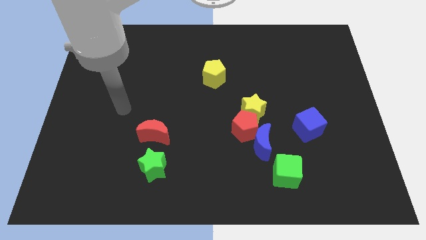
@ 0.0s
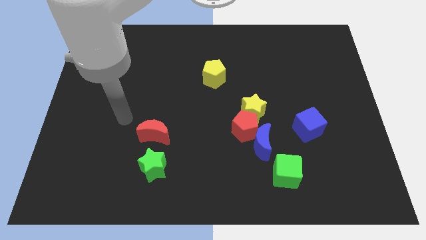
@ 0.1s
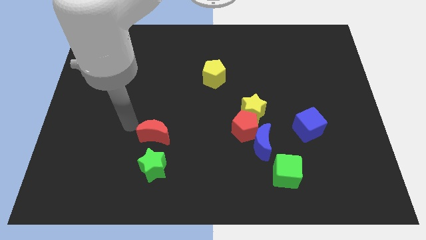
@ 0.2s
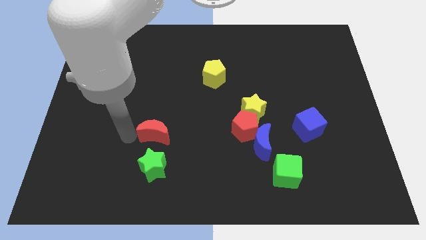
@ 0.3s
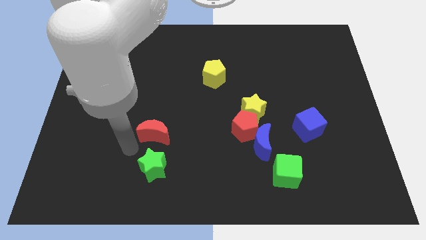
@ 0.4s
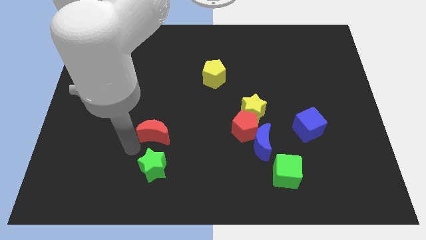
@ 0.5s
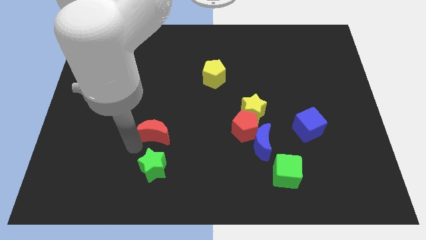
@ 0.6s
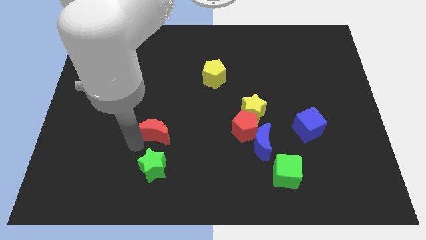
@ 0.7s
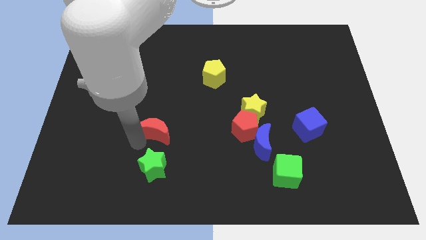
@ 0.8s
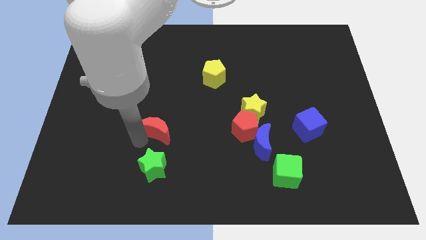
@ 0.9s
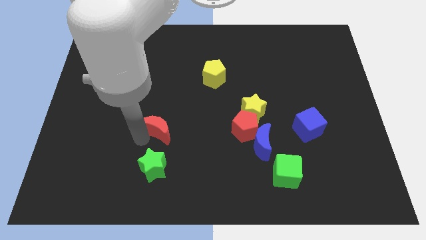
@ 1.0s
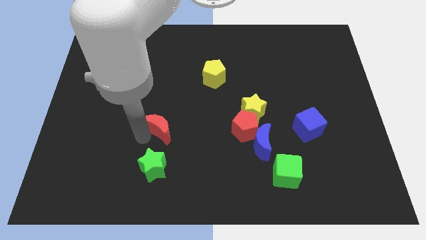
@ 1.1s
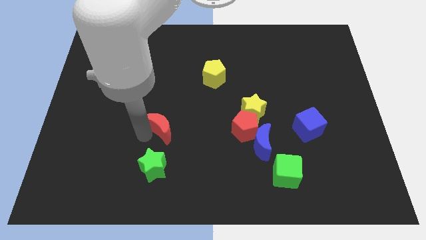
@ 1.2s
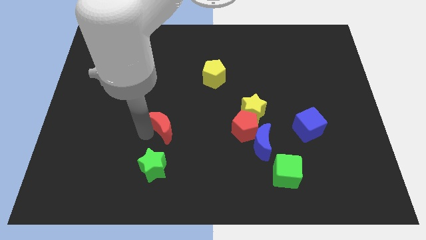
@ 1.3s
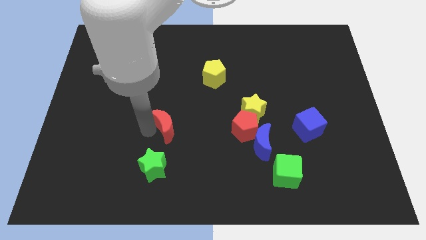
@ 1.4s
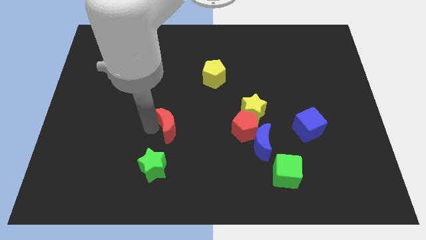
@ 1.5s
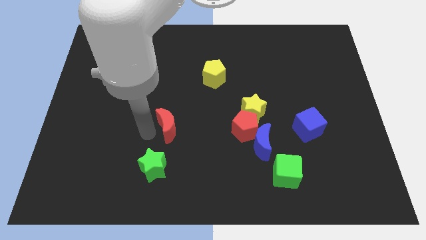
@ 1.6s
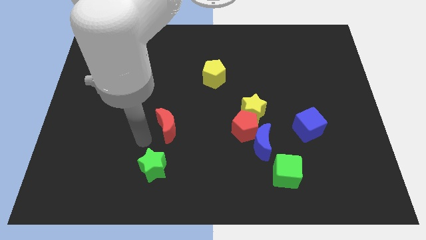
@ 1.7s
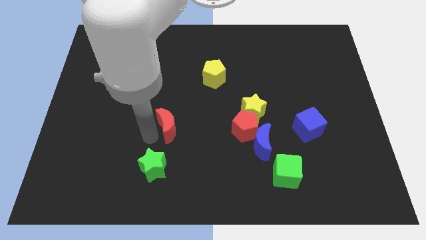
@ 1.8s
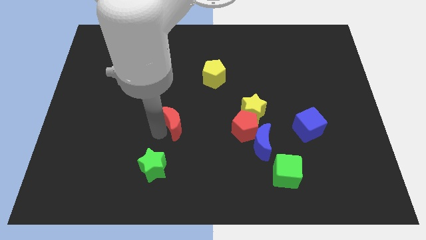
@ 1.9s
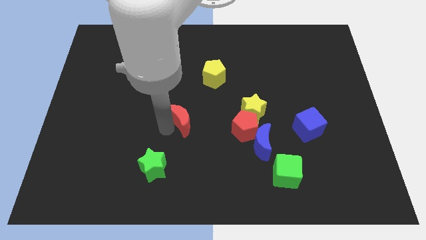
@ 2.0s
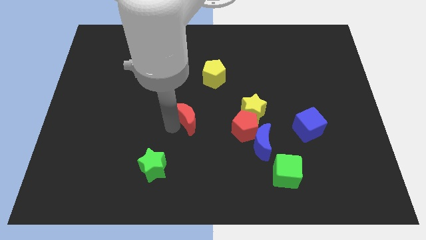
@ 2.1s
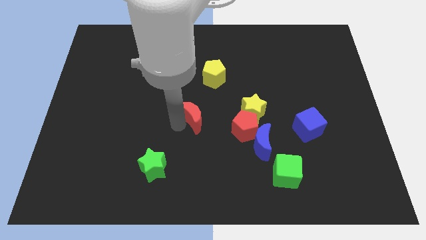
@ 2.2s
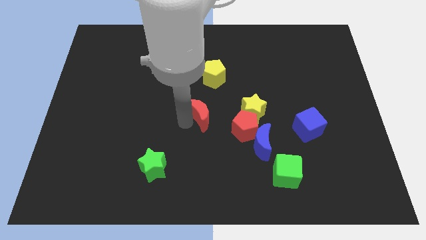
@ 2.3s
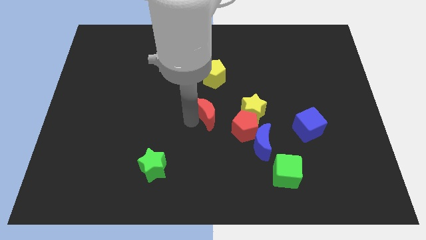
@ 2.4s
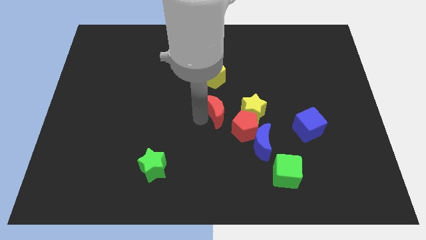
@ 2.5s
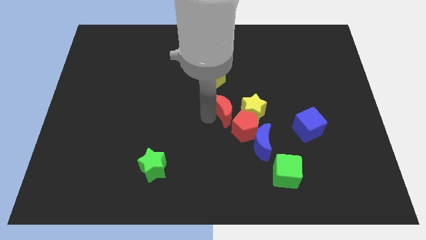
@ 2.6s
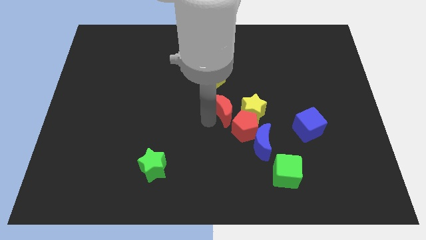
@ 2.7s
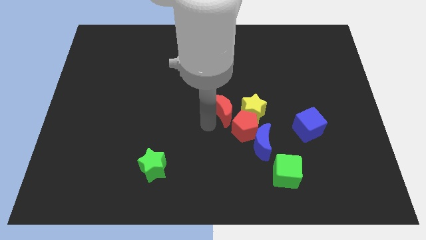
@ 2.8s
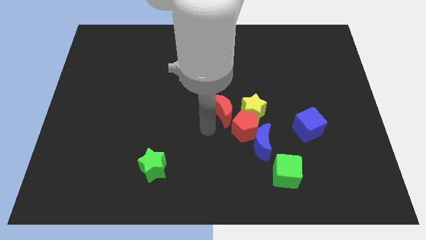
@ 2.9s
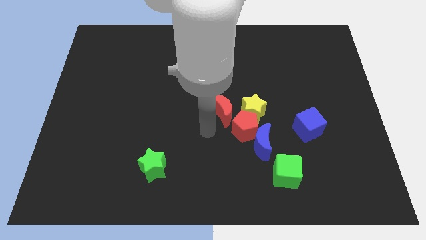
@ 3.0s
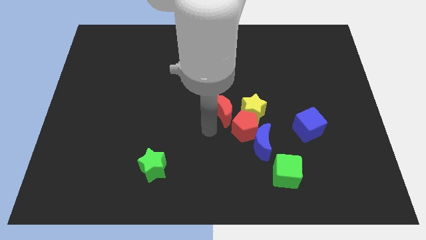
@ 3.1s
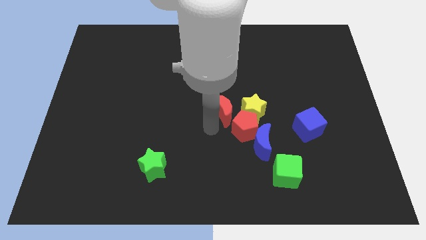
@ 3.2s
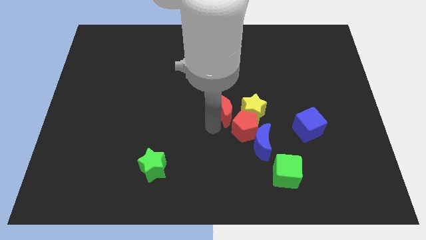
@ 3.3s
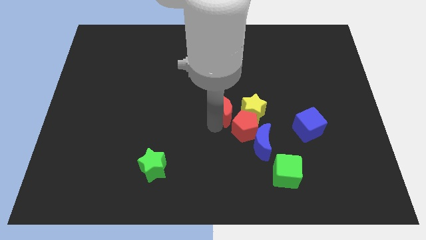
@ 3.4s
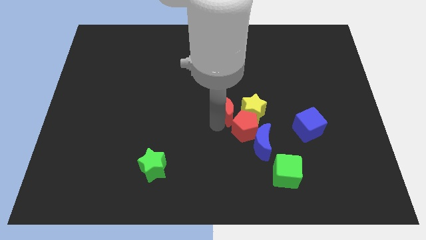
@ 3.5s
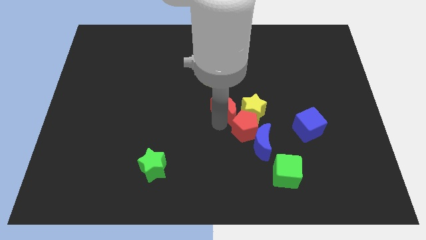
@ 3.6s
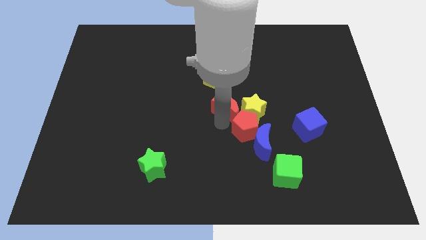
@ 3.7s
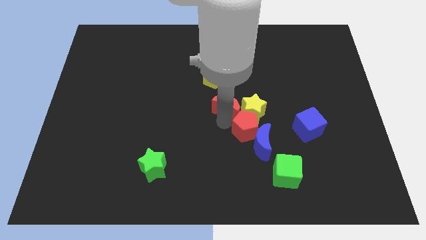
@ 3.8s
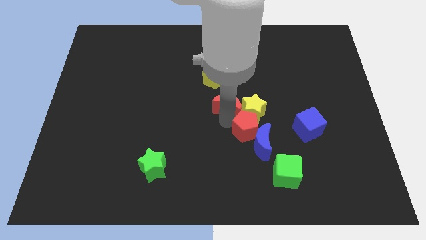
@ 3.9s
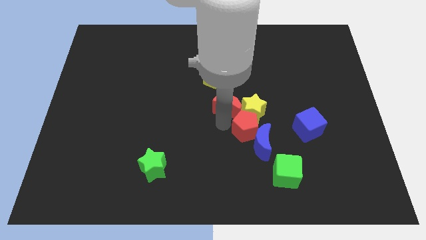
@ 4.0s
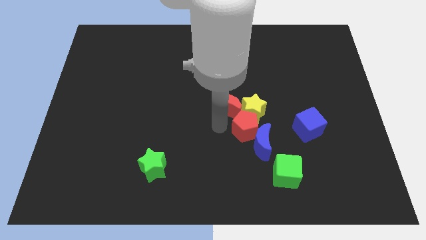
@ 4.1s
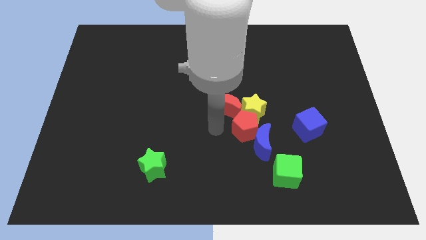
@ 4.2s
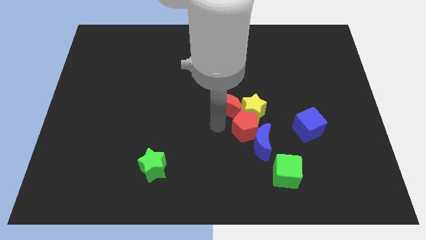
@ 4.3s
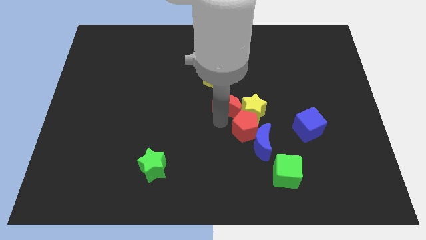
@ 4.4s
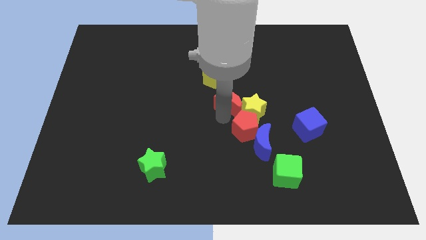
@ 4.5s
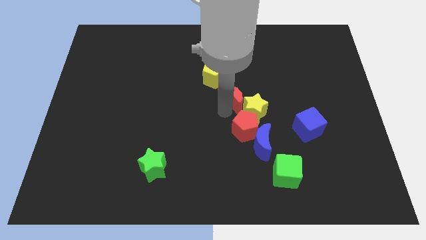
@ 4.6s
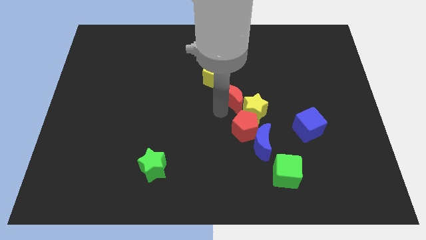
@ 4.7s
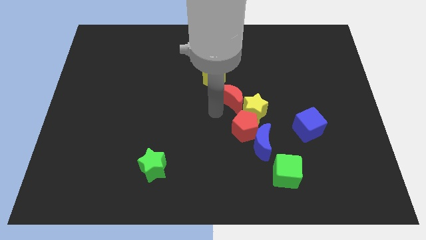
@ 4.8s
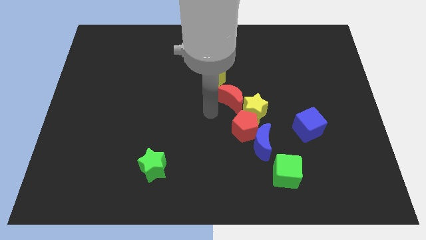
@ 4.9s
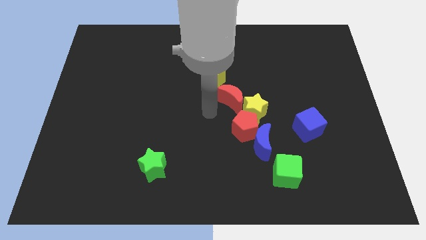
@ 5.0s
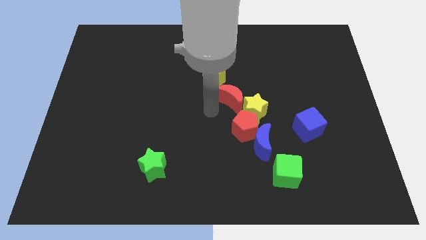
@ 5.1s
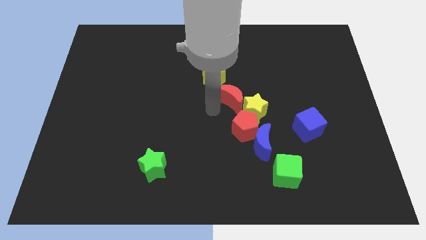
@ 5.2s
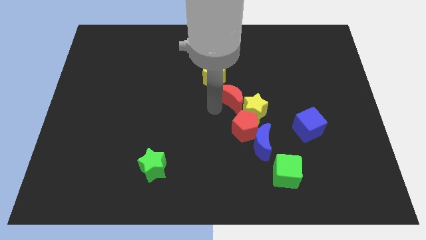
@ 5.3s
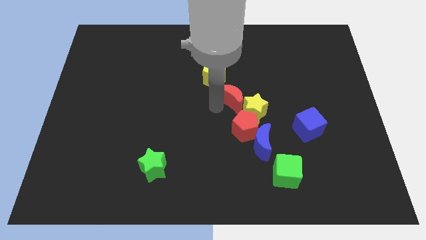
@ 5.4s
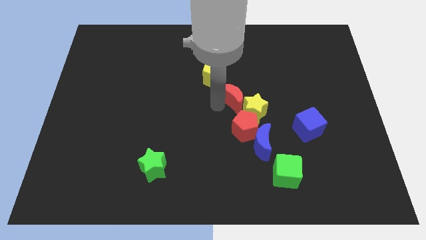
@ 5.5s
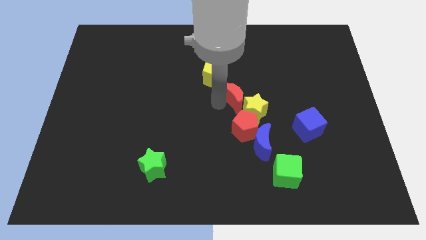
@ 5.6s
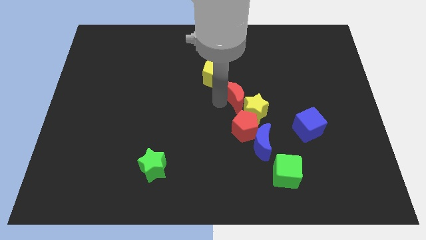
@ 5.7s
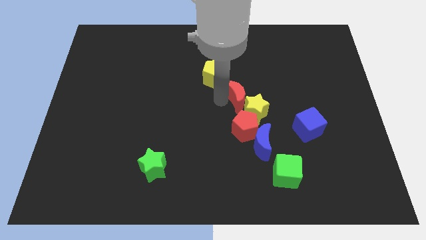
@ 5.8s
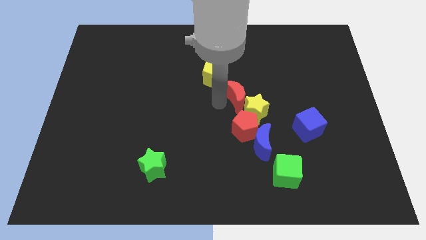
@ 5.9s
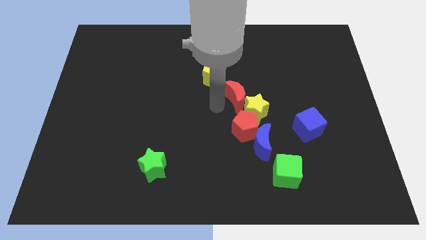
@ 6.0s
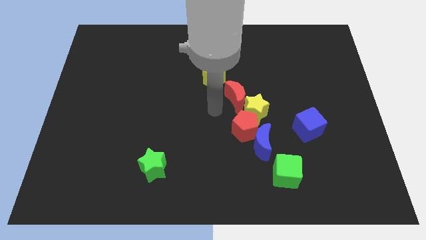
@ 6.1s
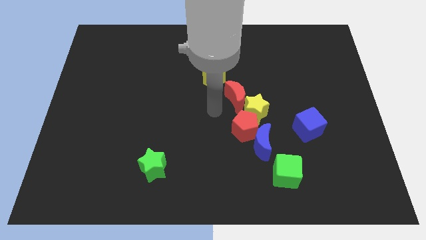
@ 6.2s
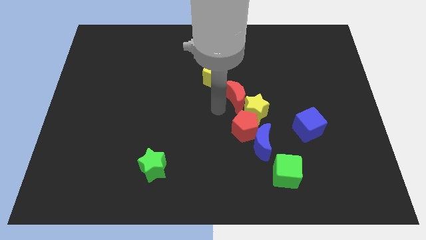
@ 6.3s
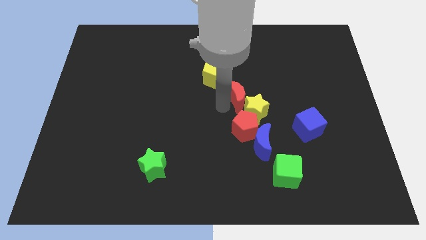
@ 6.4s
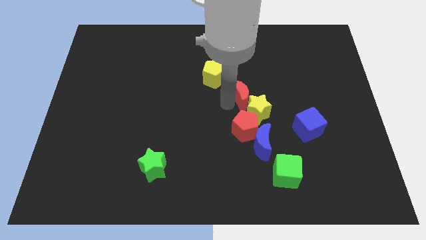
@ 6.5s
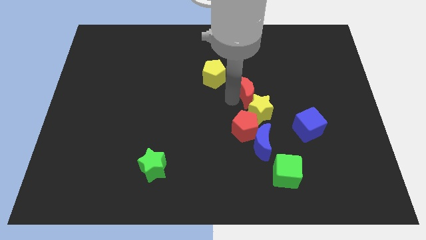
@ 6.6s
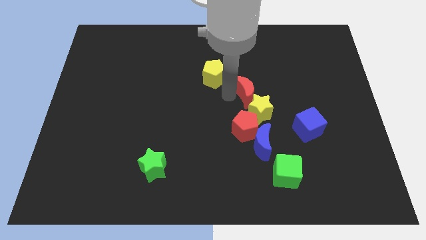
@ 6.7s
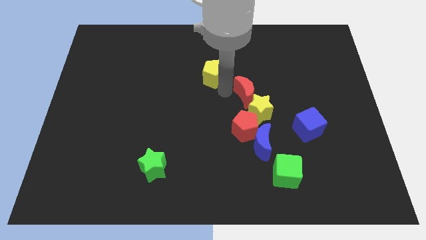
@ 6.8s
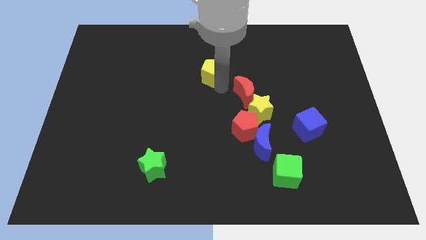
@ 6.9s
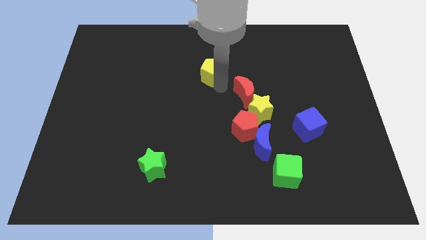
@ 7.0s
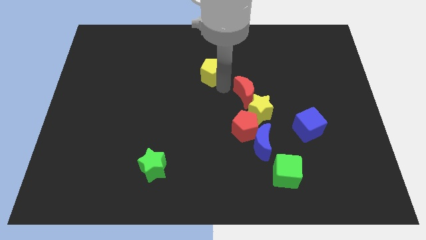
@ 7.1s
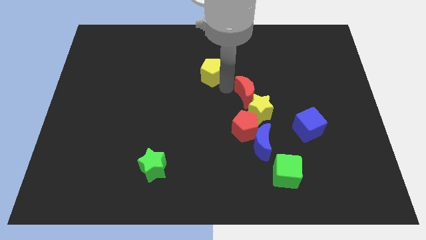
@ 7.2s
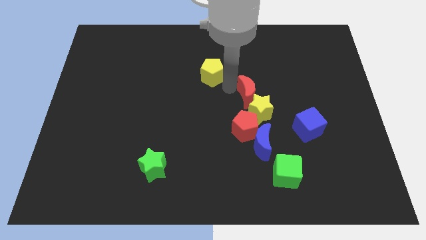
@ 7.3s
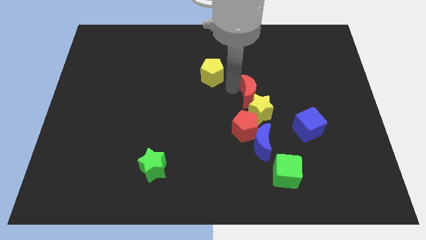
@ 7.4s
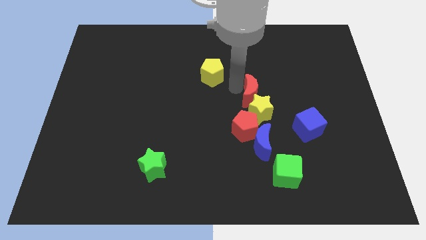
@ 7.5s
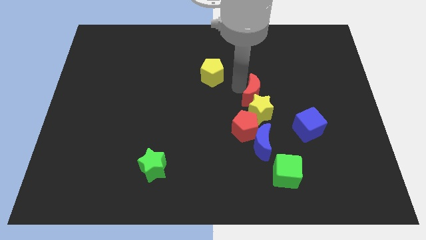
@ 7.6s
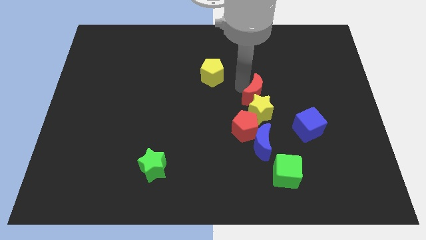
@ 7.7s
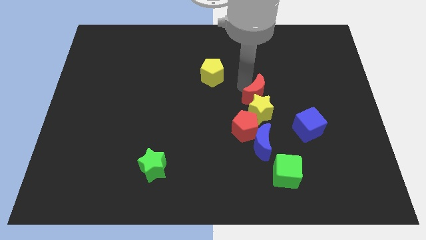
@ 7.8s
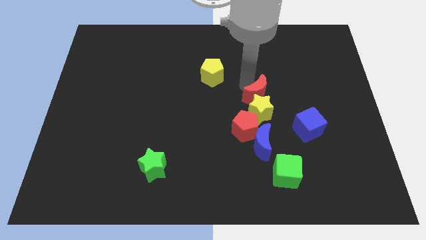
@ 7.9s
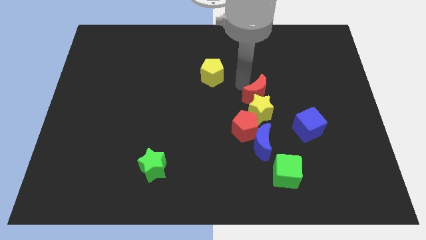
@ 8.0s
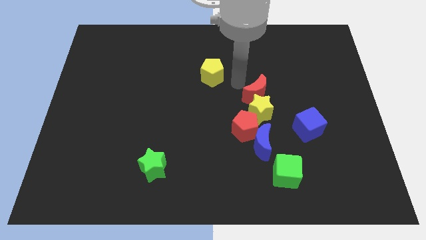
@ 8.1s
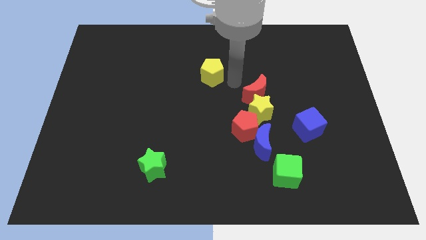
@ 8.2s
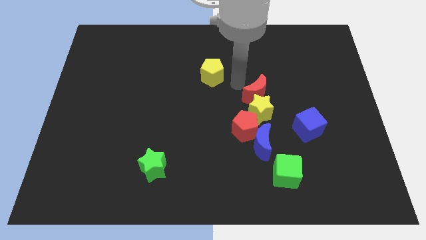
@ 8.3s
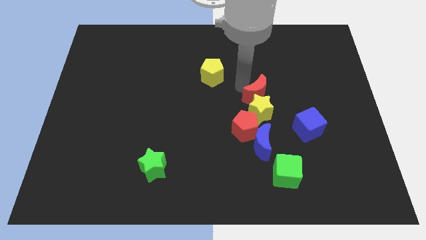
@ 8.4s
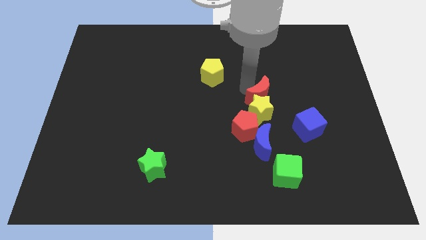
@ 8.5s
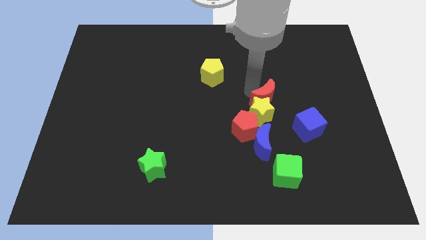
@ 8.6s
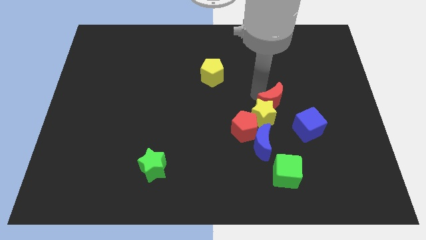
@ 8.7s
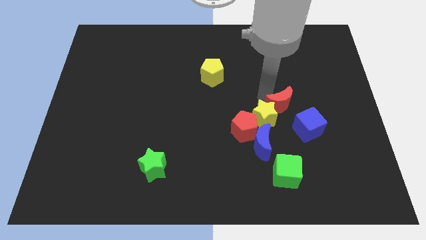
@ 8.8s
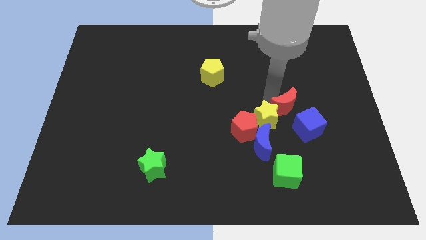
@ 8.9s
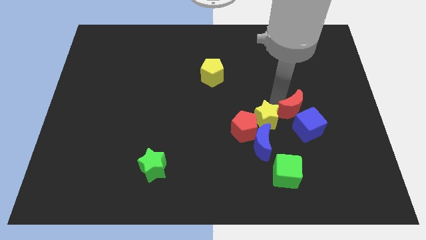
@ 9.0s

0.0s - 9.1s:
slide the red moon to the blue cube
